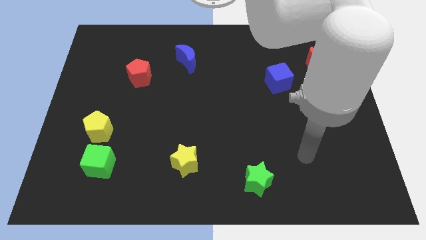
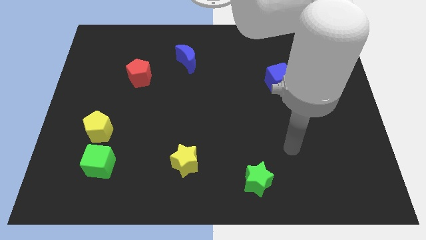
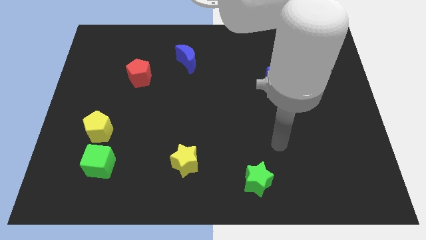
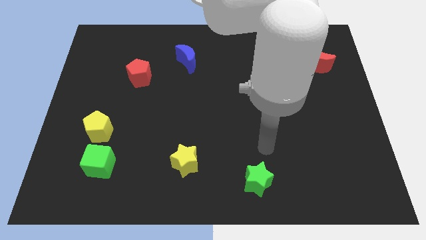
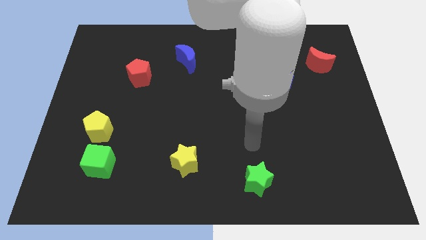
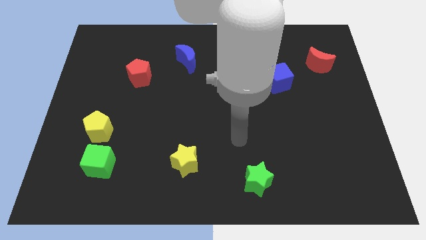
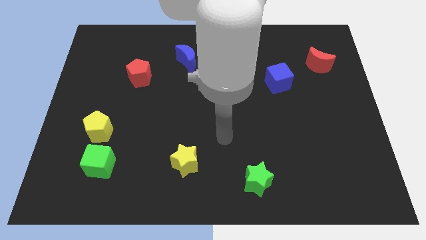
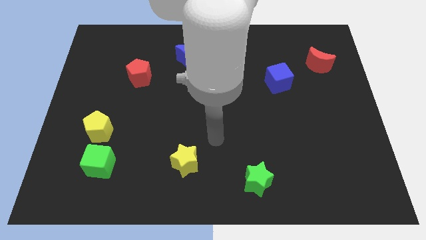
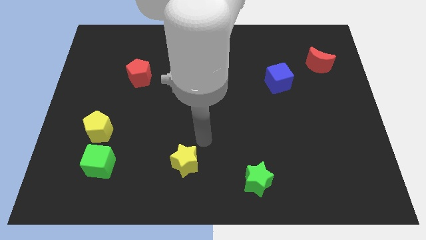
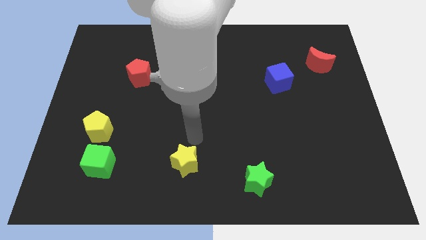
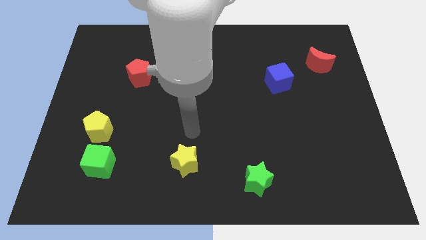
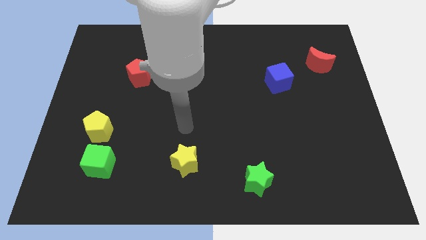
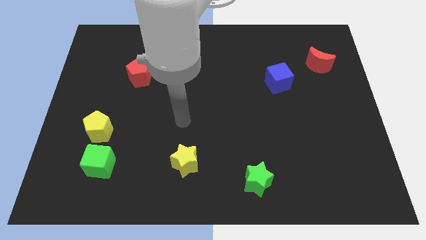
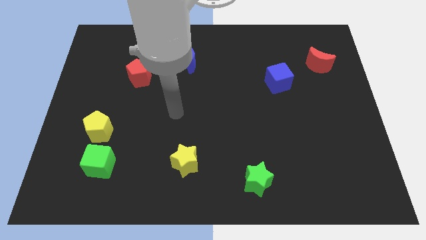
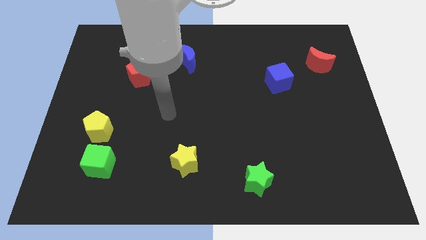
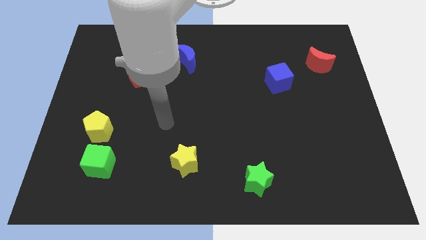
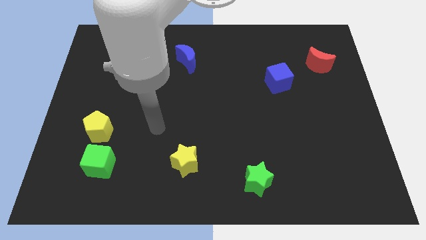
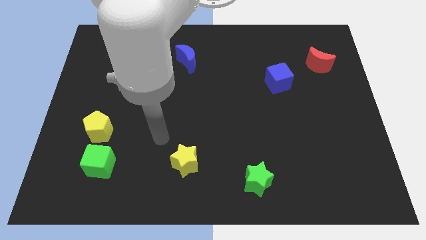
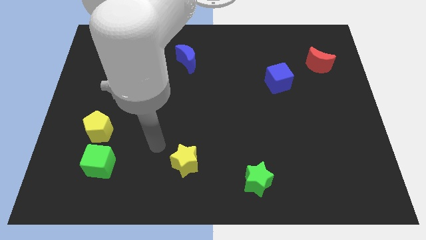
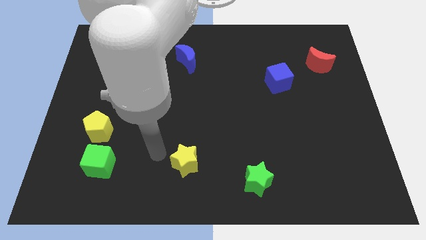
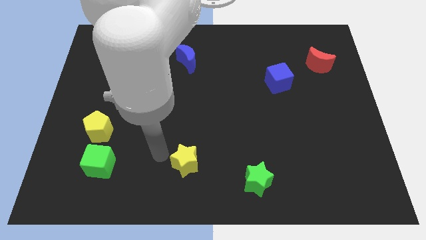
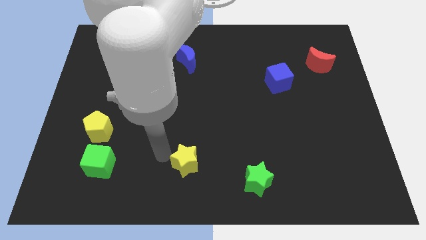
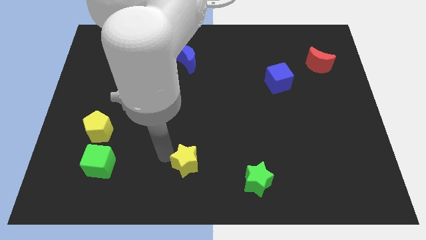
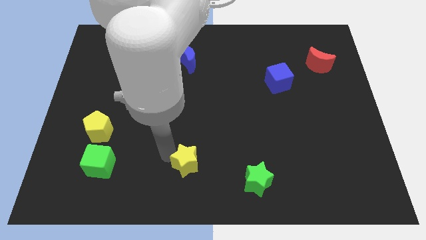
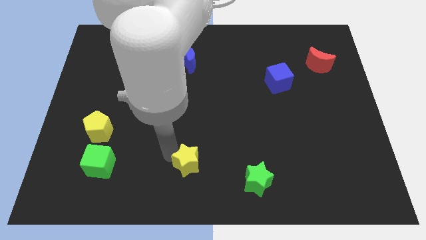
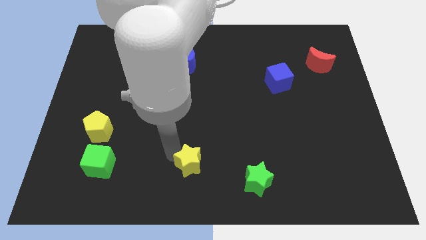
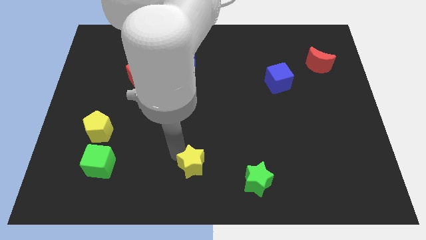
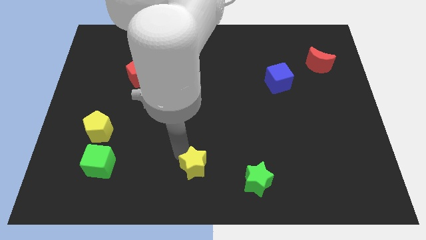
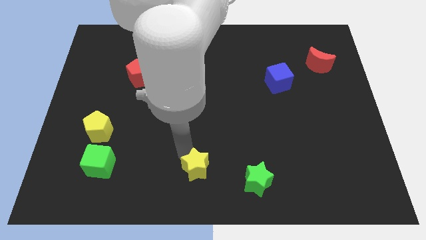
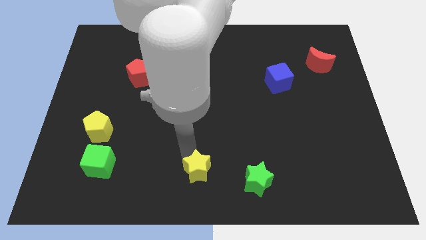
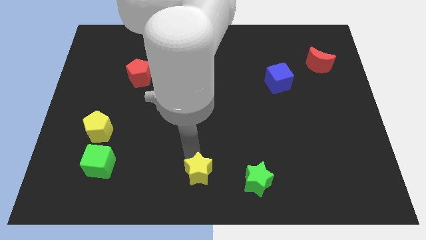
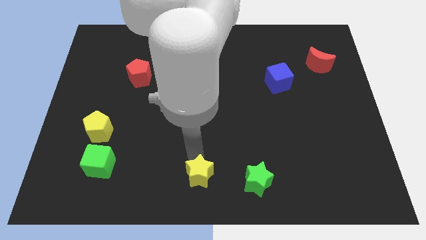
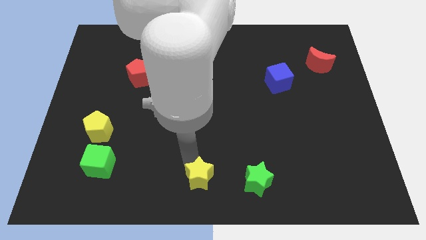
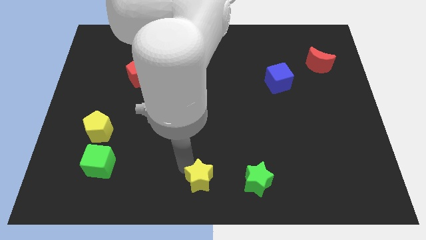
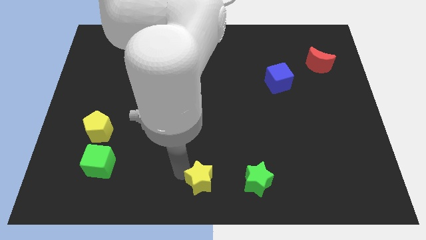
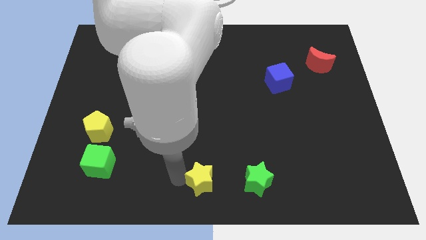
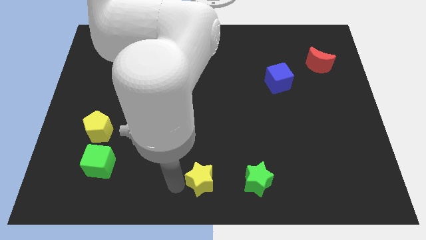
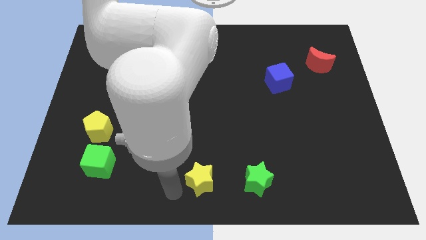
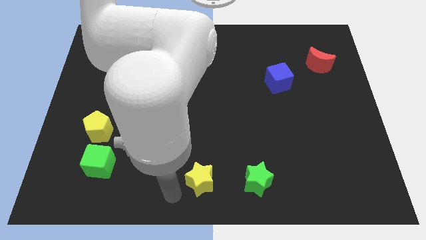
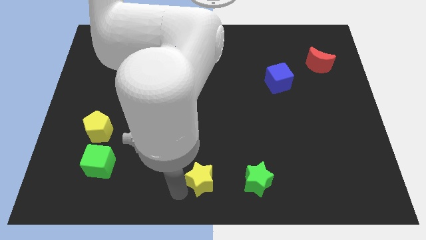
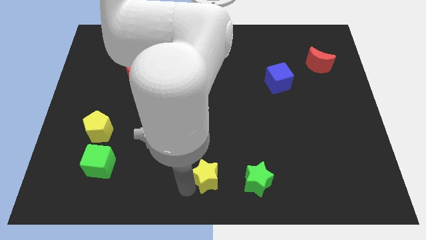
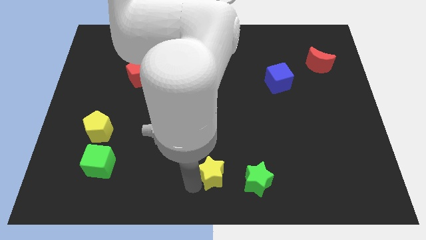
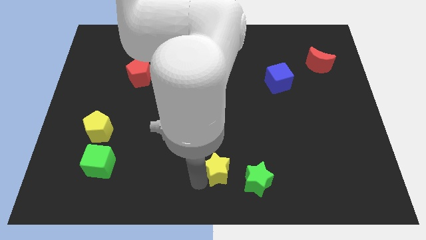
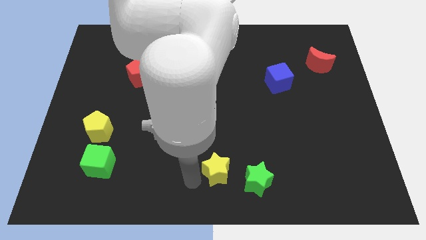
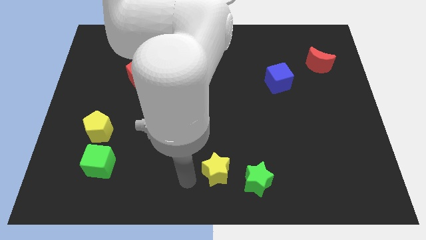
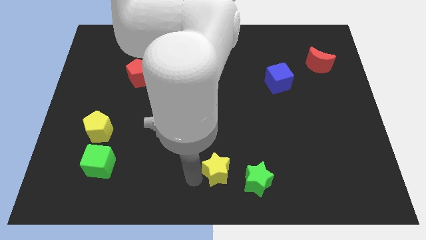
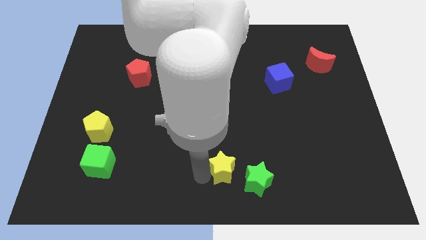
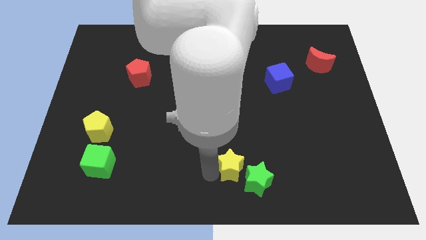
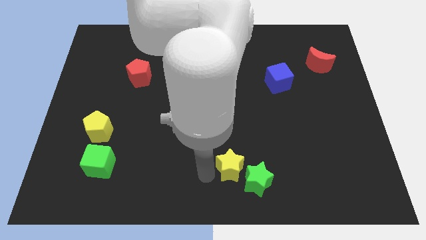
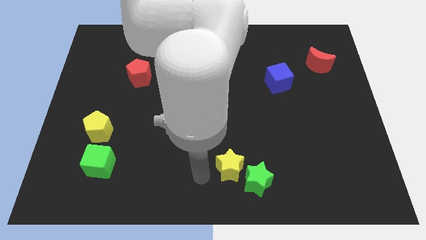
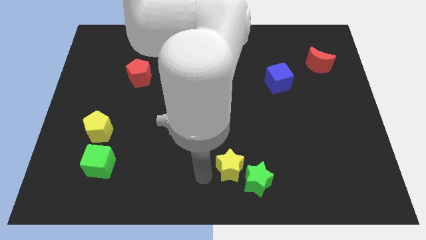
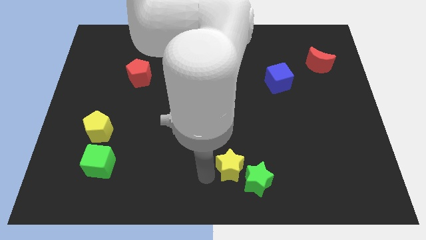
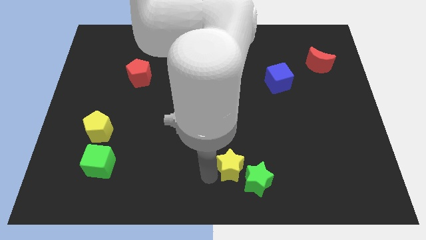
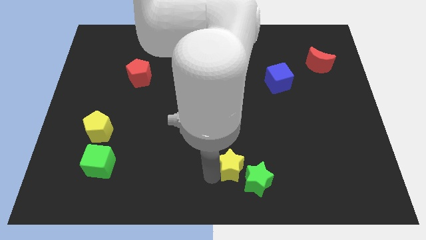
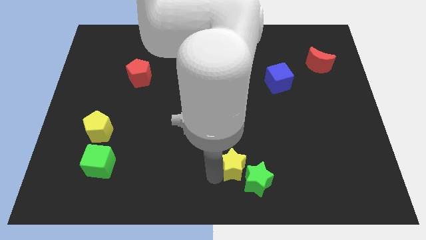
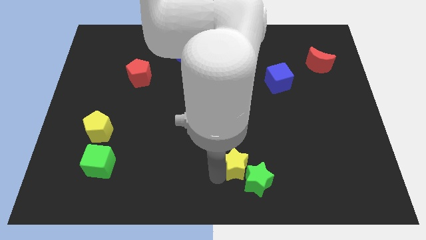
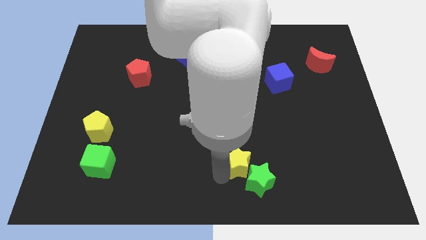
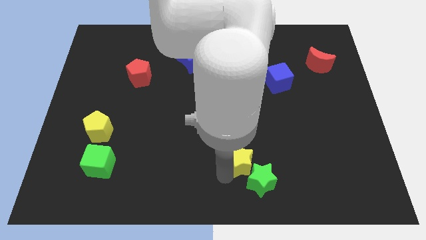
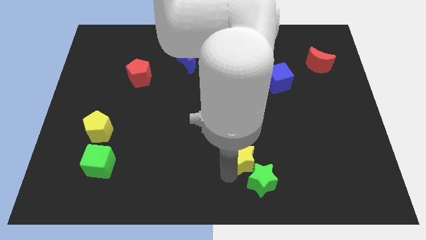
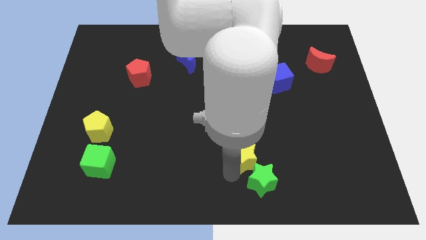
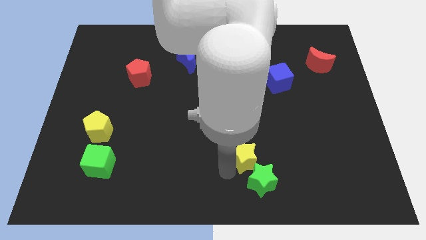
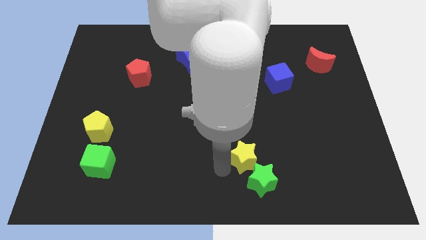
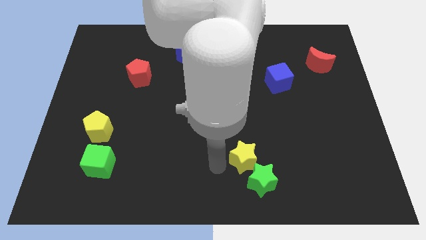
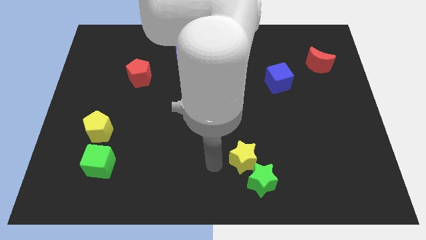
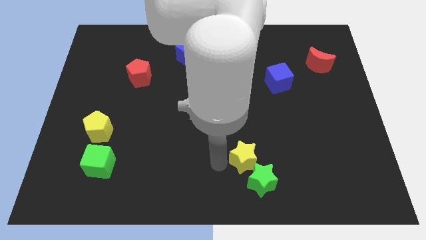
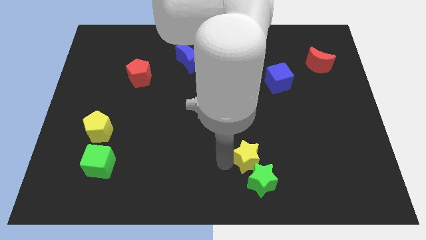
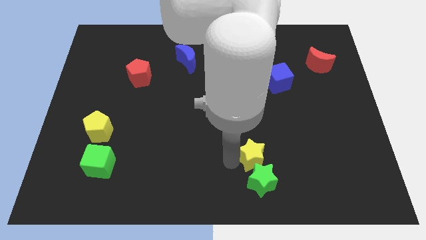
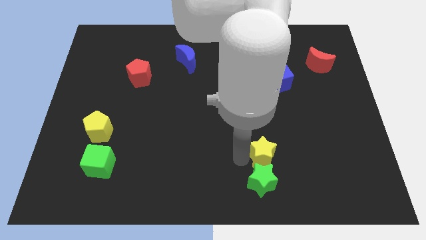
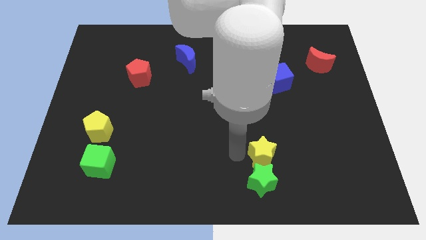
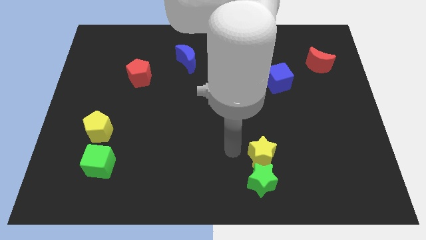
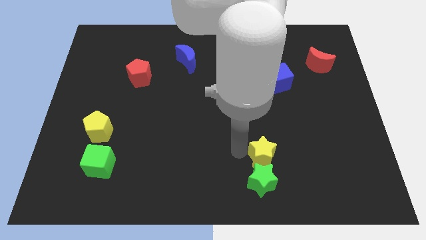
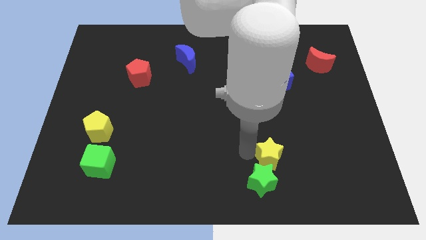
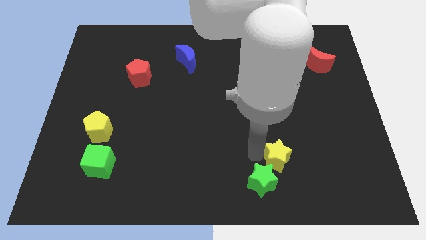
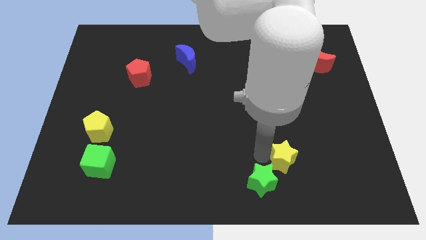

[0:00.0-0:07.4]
move the yellow star to the right
